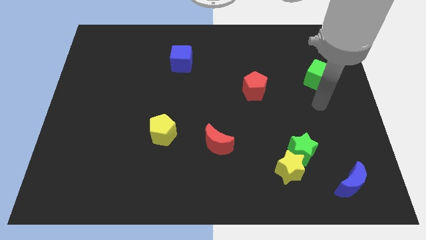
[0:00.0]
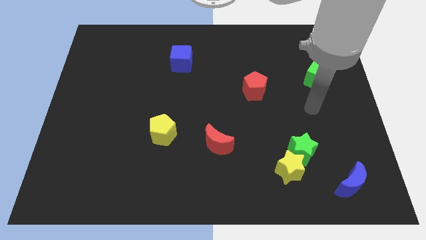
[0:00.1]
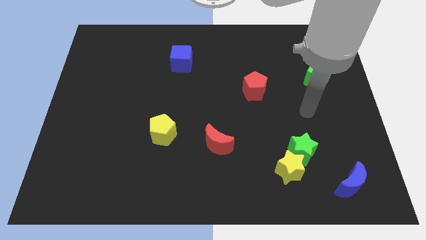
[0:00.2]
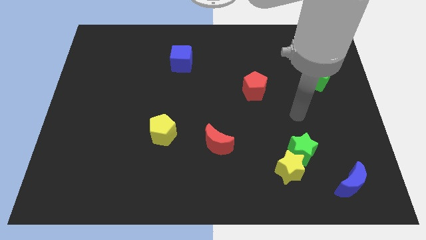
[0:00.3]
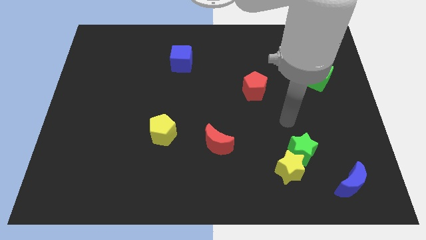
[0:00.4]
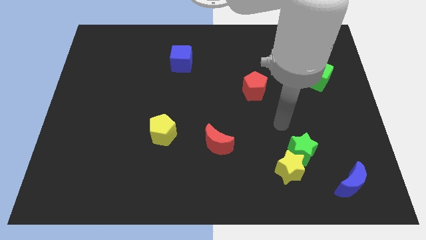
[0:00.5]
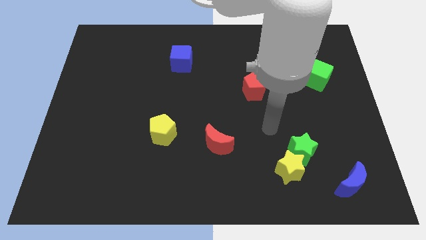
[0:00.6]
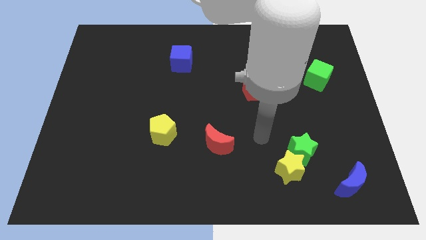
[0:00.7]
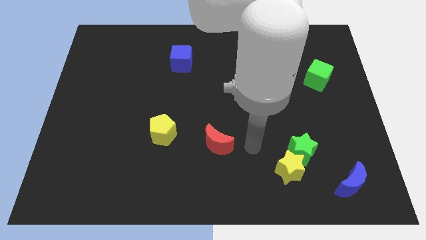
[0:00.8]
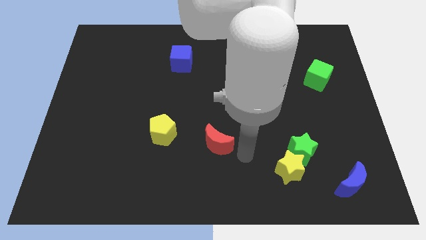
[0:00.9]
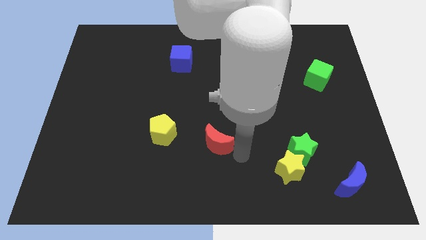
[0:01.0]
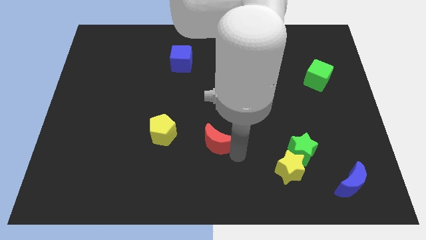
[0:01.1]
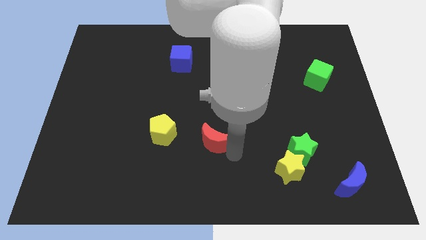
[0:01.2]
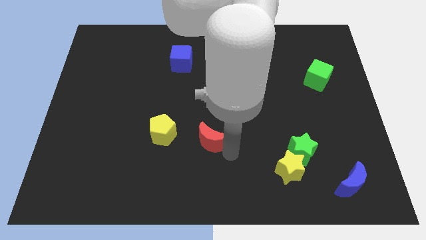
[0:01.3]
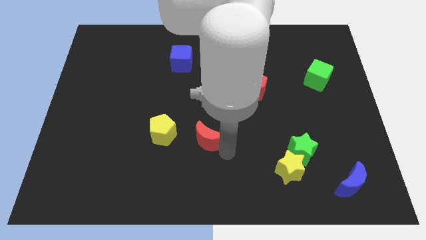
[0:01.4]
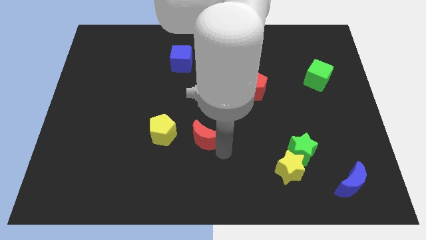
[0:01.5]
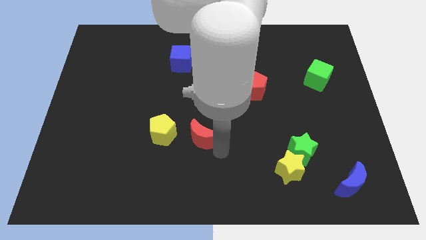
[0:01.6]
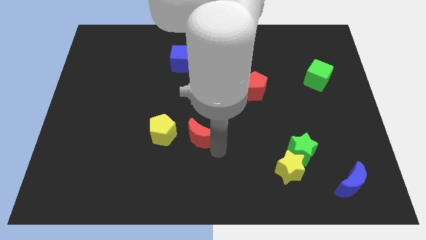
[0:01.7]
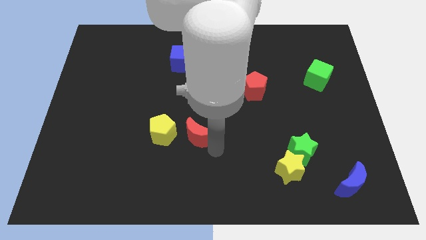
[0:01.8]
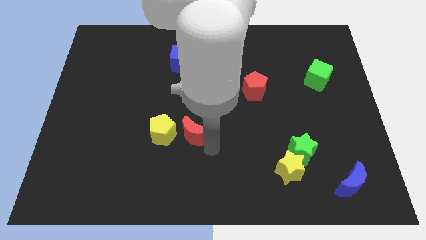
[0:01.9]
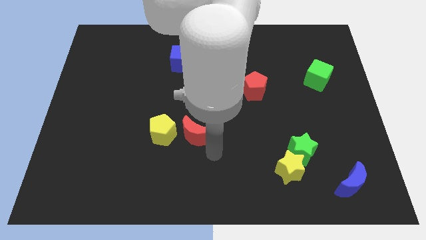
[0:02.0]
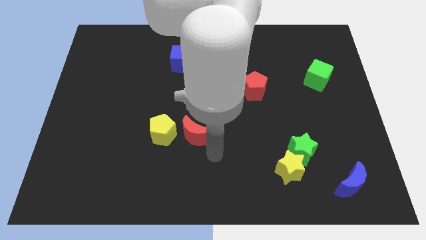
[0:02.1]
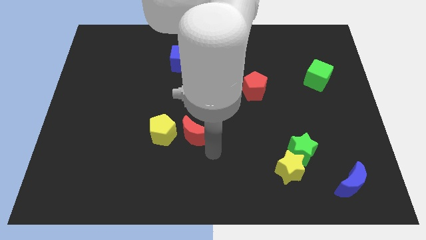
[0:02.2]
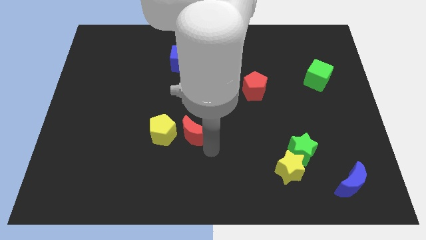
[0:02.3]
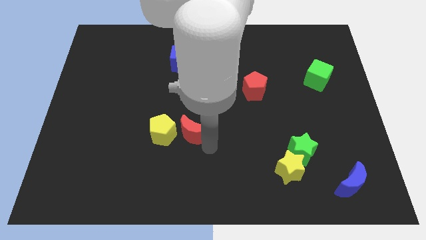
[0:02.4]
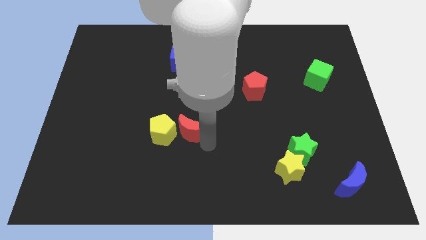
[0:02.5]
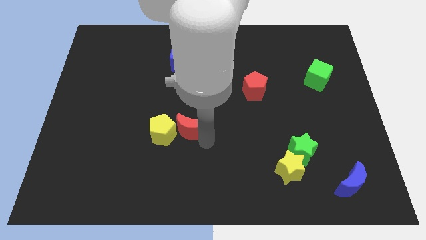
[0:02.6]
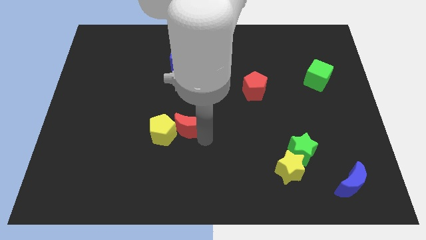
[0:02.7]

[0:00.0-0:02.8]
push the red moon up and then to the left somewhat

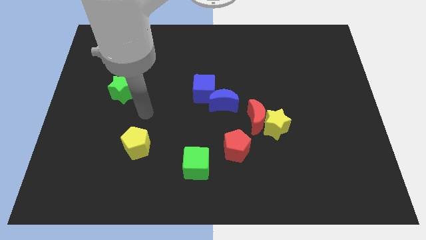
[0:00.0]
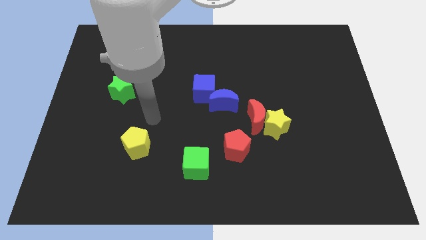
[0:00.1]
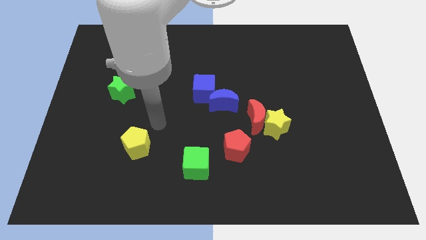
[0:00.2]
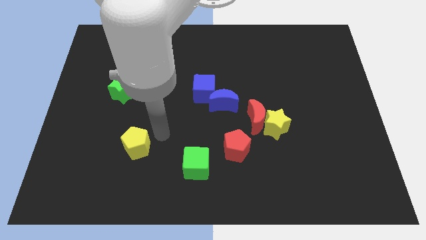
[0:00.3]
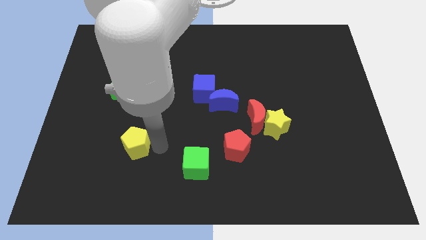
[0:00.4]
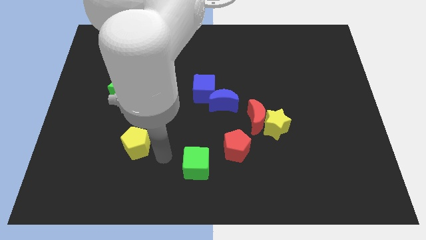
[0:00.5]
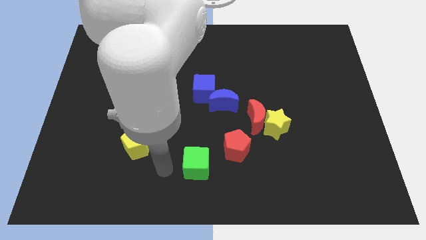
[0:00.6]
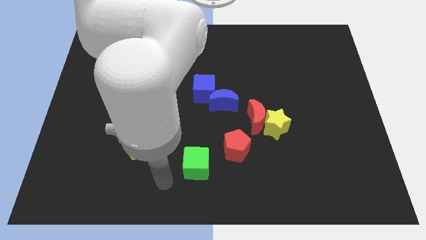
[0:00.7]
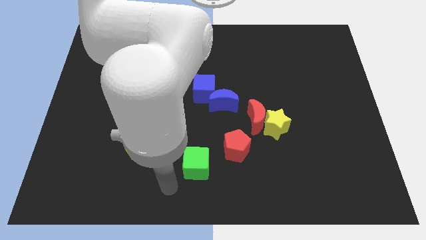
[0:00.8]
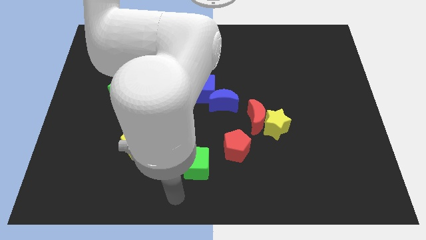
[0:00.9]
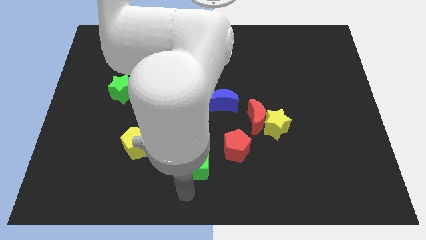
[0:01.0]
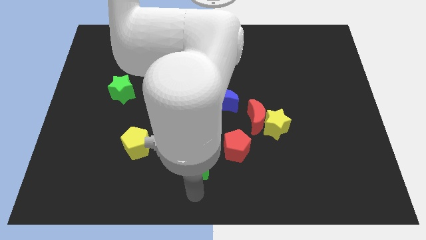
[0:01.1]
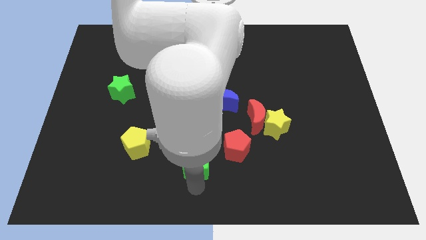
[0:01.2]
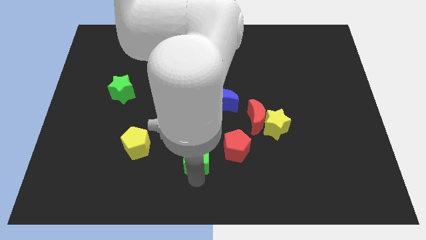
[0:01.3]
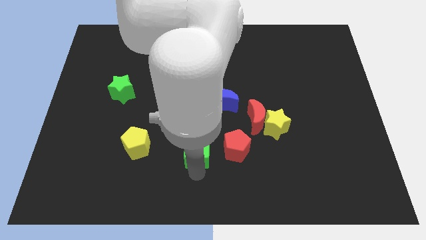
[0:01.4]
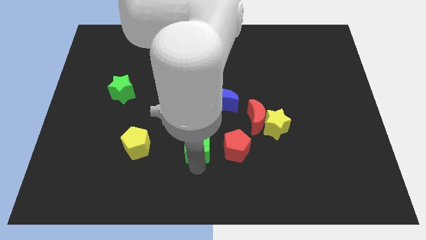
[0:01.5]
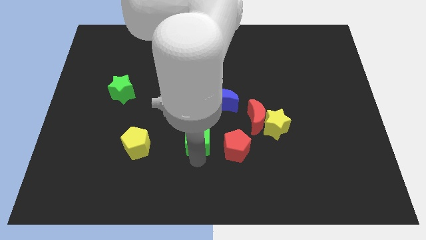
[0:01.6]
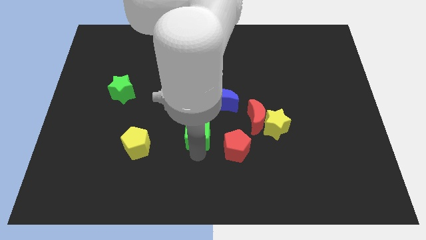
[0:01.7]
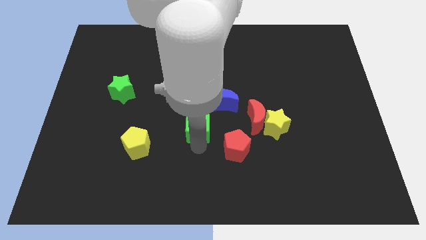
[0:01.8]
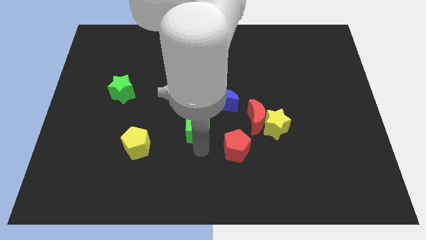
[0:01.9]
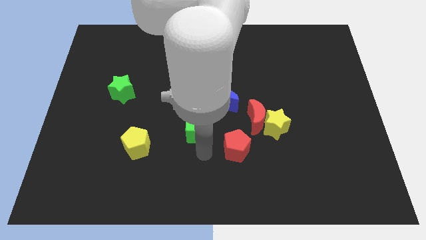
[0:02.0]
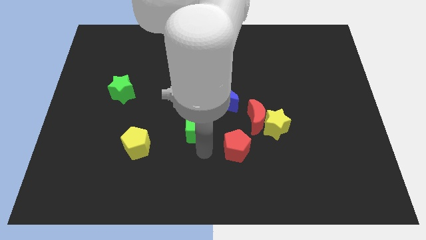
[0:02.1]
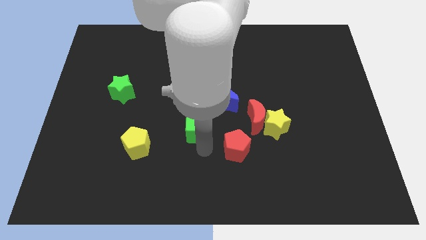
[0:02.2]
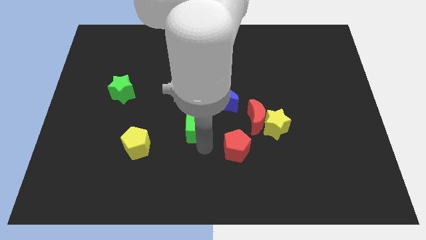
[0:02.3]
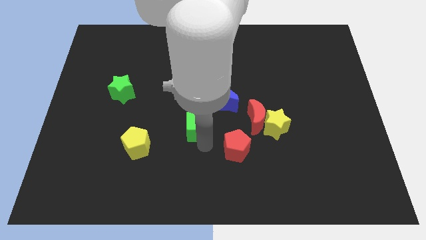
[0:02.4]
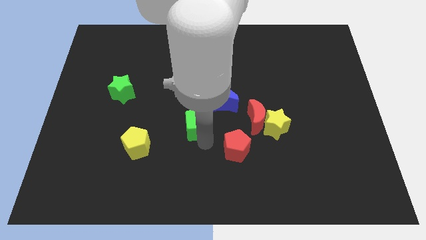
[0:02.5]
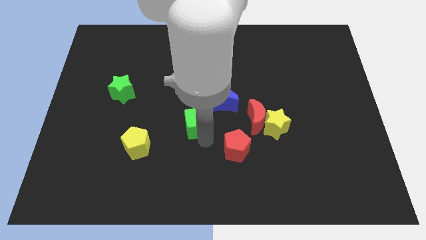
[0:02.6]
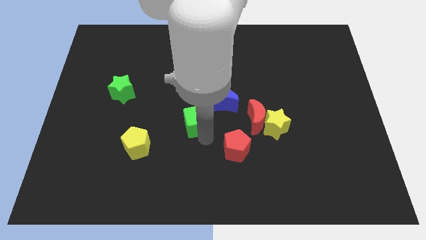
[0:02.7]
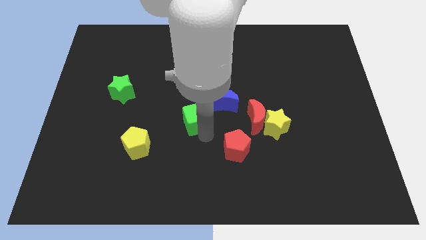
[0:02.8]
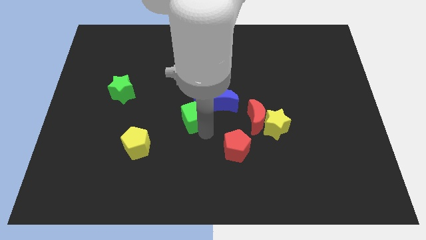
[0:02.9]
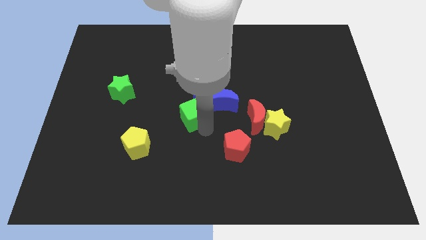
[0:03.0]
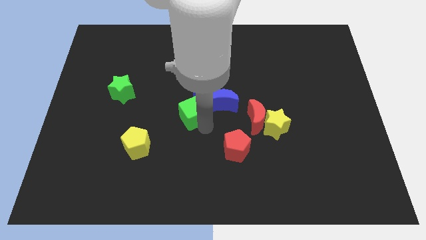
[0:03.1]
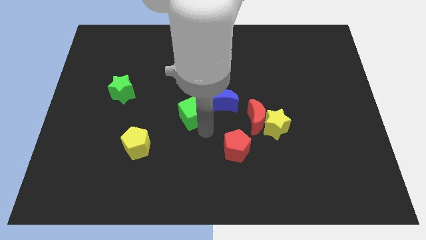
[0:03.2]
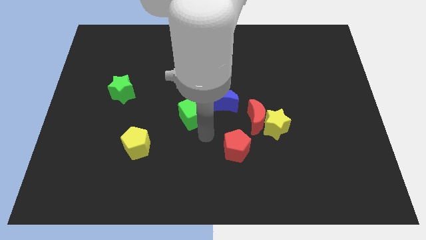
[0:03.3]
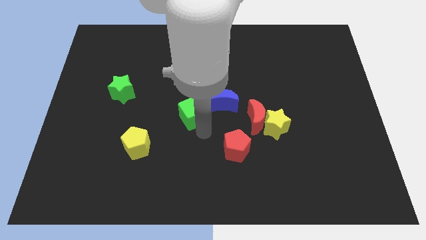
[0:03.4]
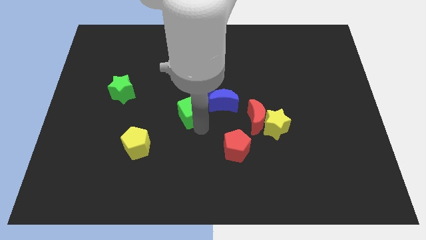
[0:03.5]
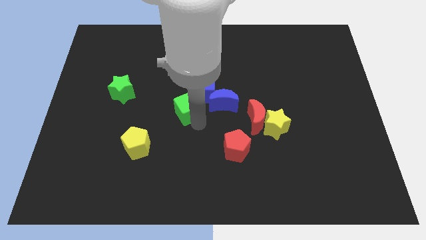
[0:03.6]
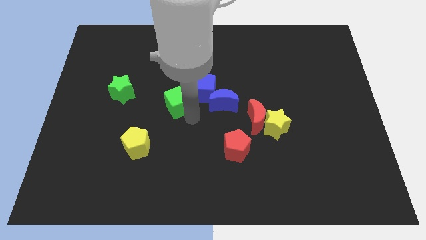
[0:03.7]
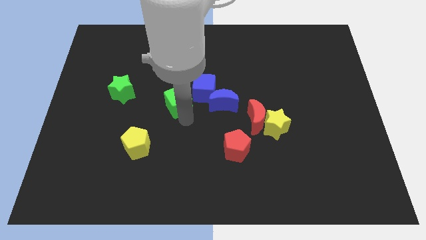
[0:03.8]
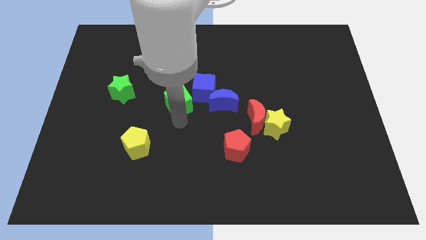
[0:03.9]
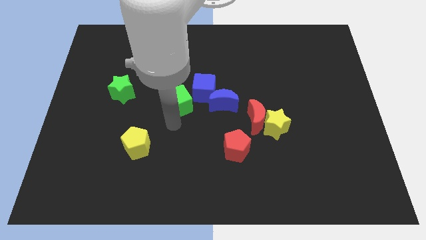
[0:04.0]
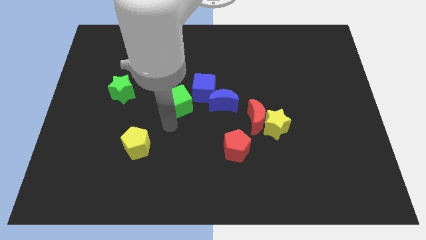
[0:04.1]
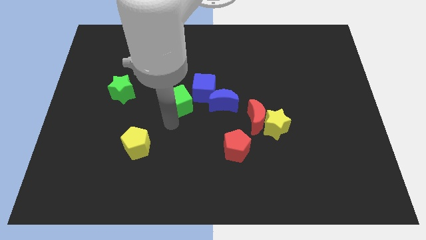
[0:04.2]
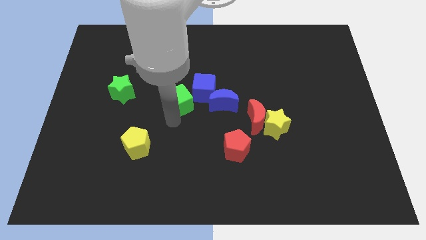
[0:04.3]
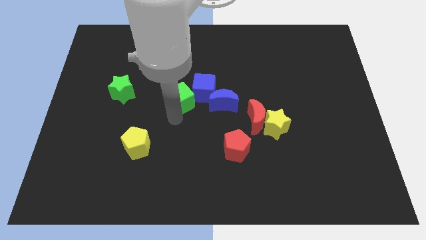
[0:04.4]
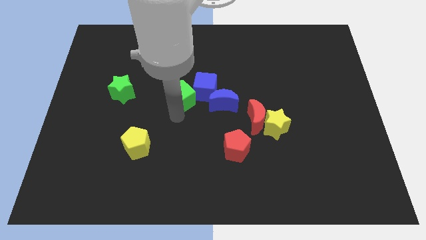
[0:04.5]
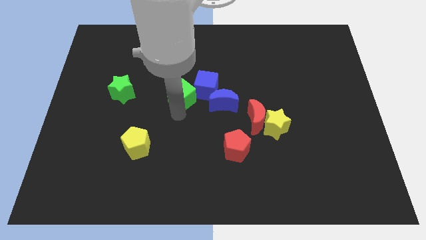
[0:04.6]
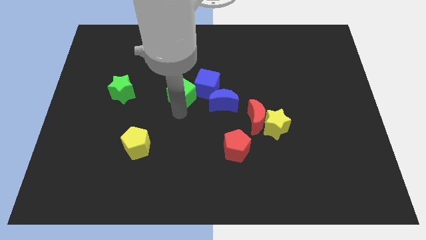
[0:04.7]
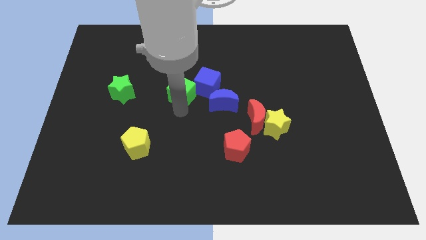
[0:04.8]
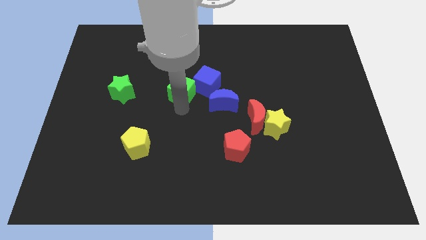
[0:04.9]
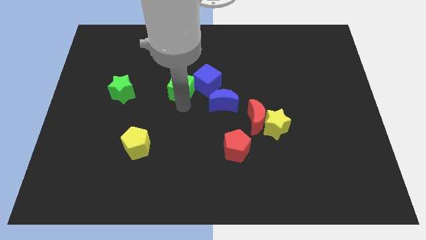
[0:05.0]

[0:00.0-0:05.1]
move the green cube upwards

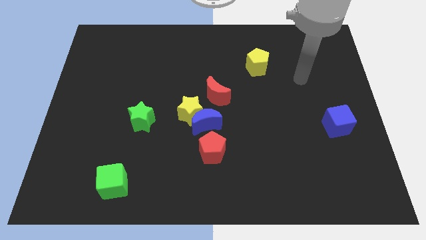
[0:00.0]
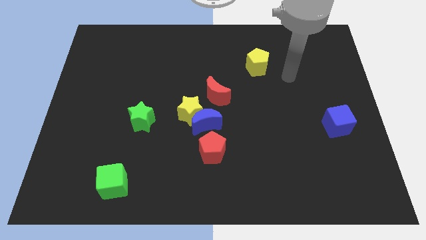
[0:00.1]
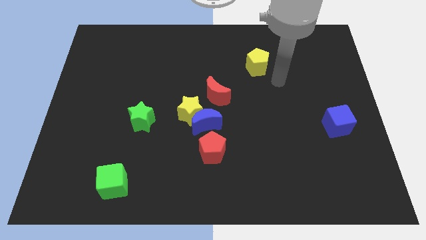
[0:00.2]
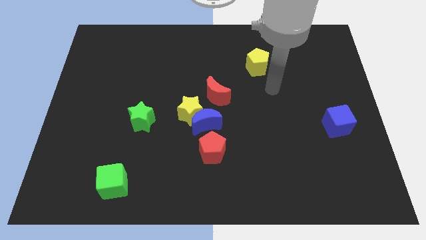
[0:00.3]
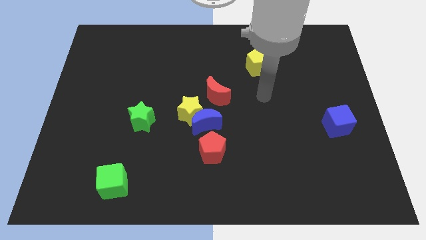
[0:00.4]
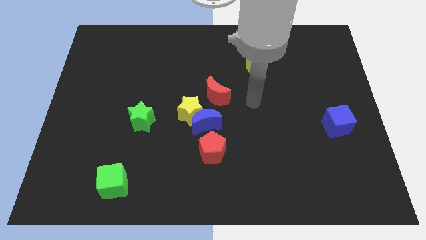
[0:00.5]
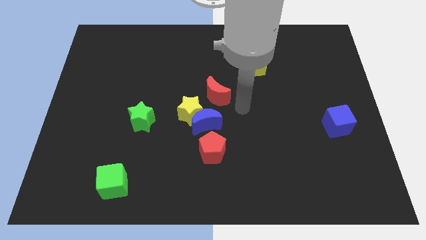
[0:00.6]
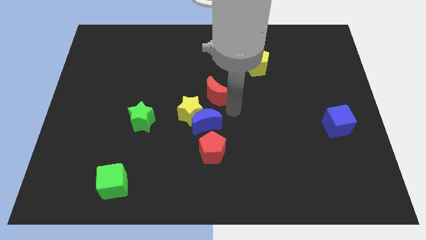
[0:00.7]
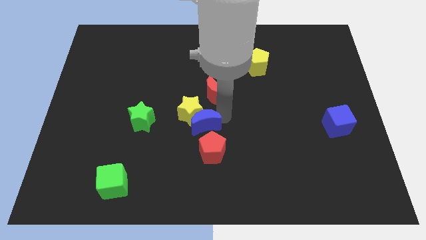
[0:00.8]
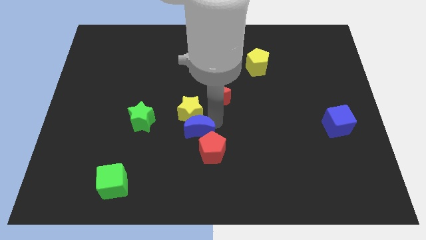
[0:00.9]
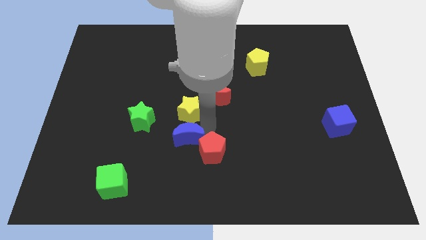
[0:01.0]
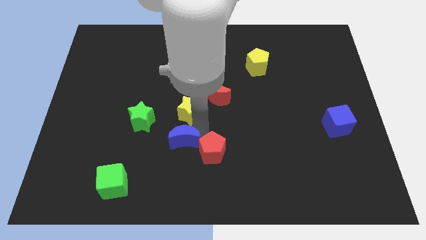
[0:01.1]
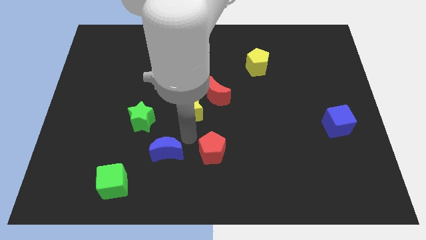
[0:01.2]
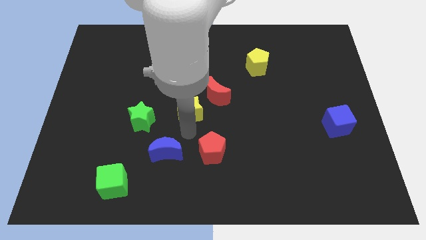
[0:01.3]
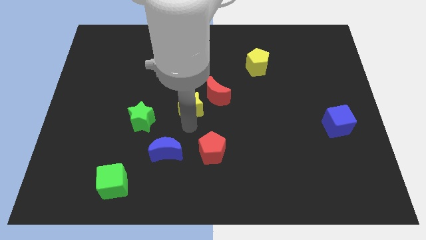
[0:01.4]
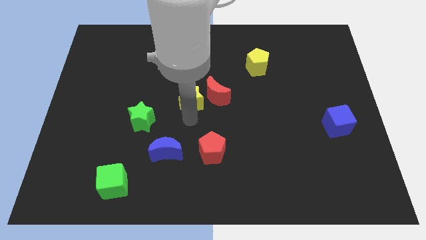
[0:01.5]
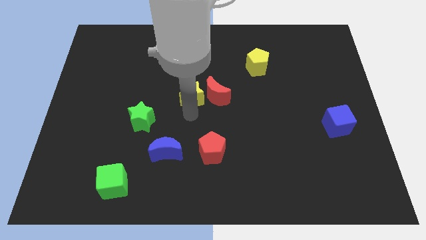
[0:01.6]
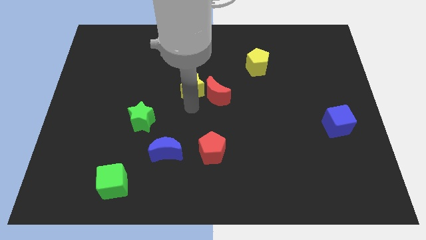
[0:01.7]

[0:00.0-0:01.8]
move the yellow star up slightly
